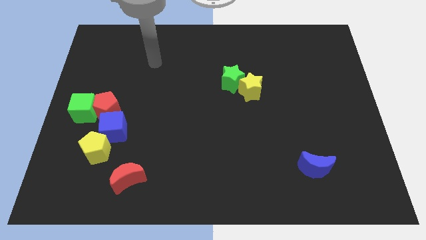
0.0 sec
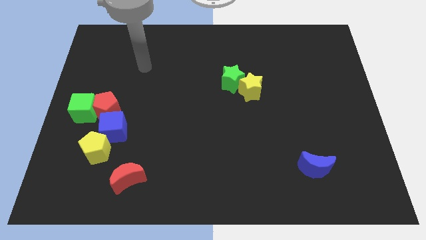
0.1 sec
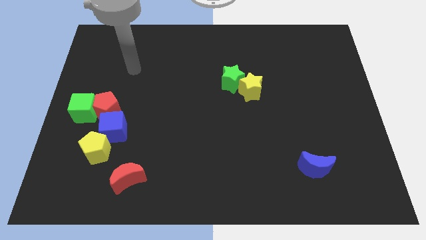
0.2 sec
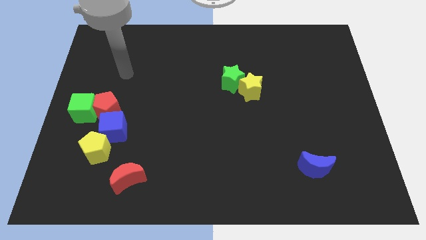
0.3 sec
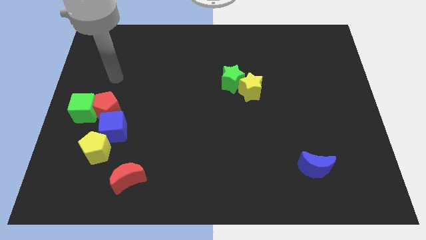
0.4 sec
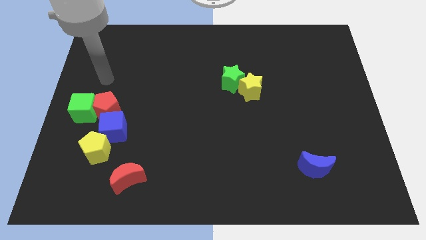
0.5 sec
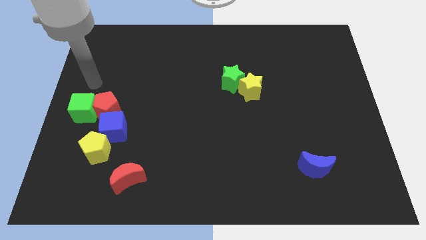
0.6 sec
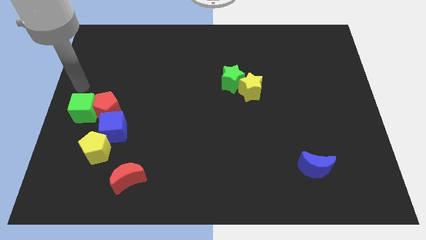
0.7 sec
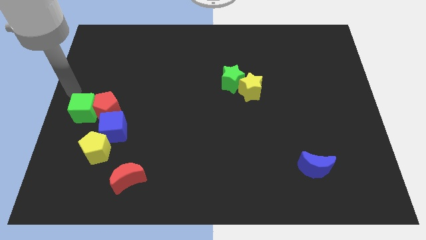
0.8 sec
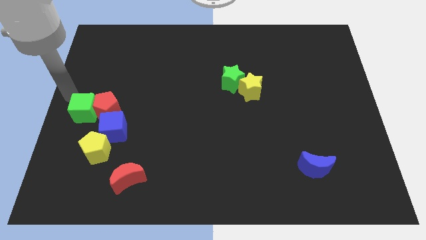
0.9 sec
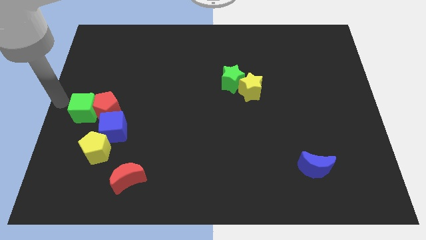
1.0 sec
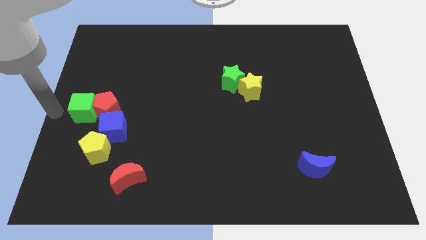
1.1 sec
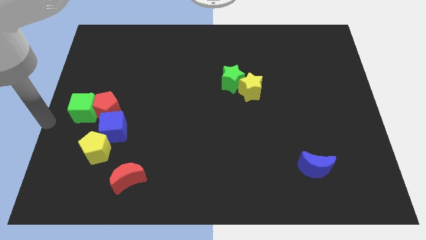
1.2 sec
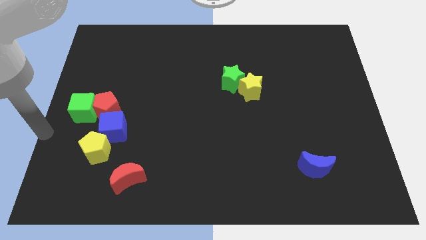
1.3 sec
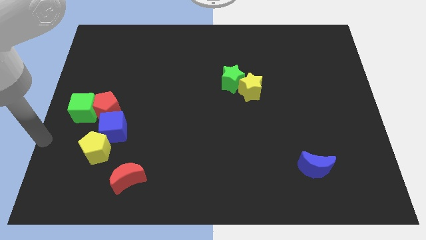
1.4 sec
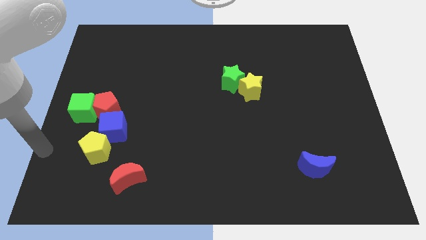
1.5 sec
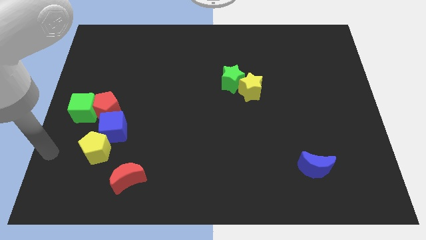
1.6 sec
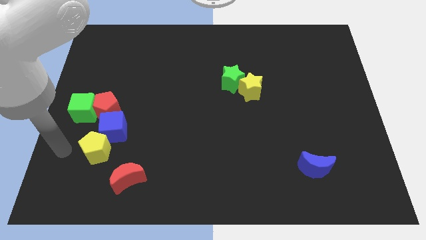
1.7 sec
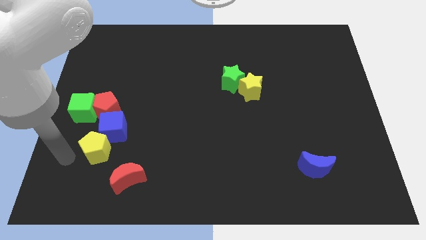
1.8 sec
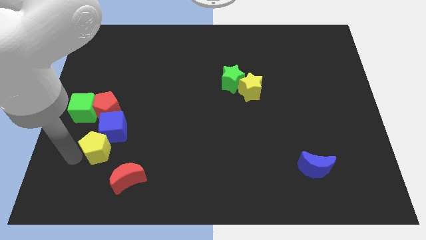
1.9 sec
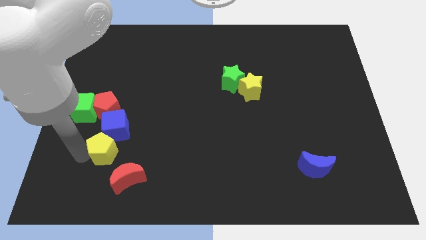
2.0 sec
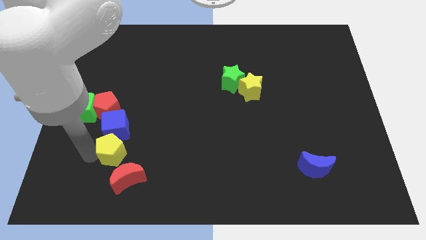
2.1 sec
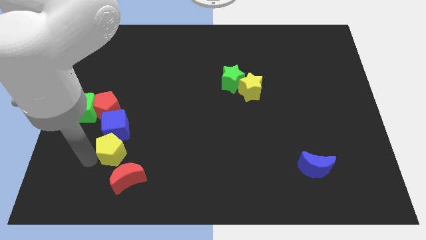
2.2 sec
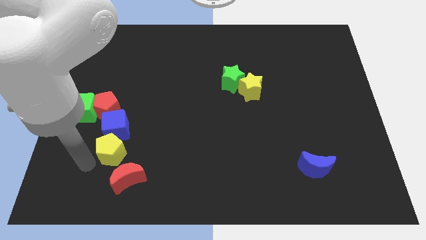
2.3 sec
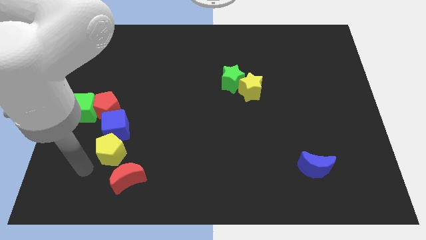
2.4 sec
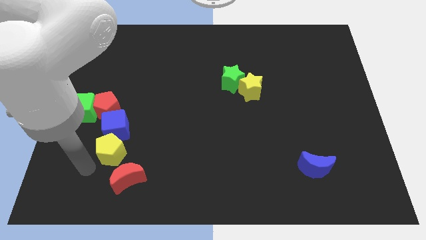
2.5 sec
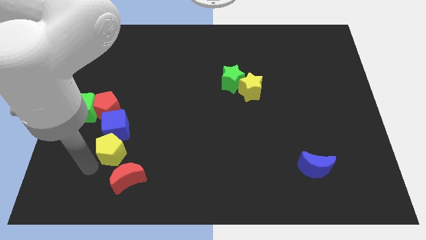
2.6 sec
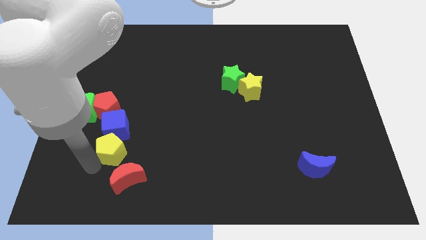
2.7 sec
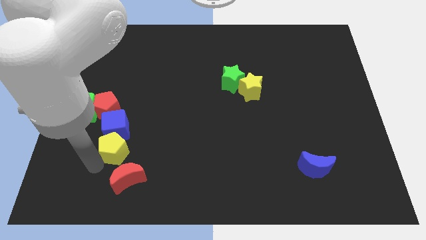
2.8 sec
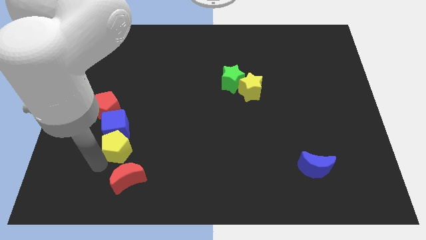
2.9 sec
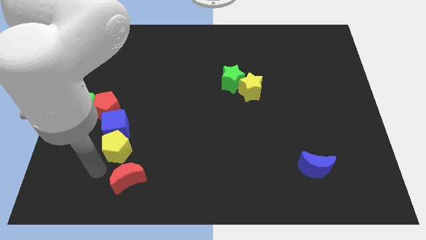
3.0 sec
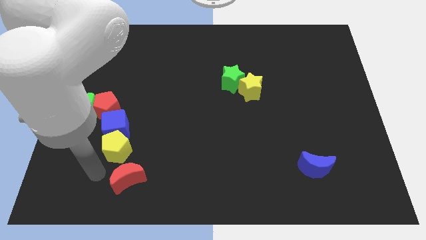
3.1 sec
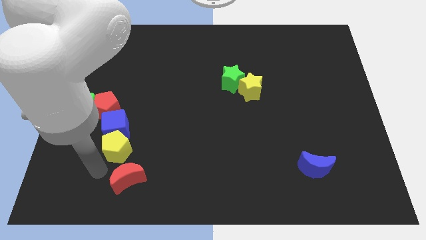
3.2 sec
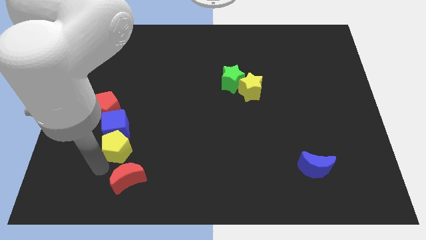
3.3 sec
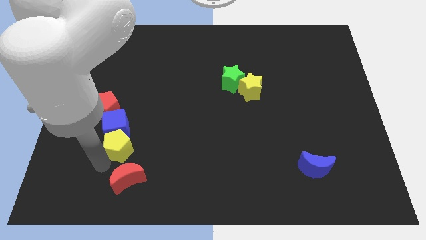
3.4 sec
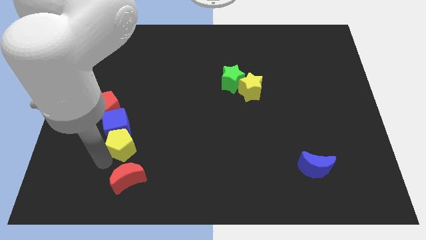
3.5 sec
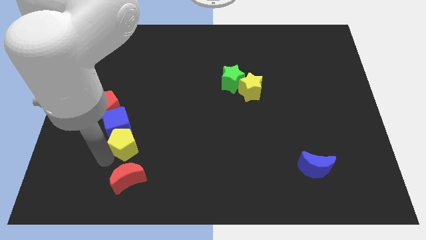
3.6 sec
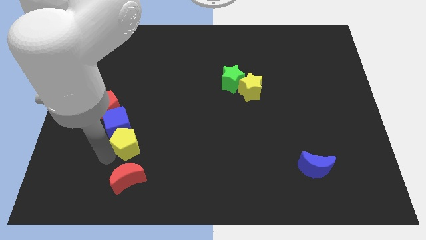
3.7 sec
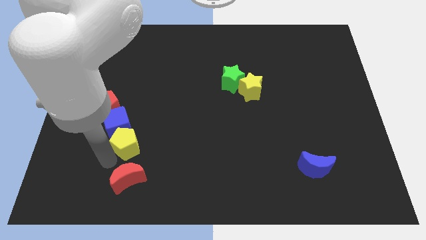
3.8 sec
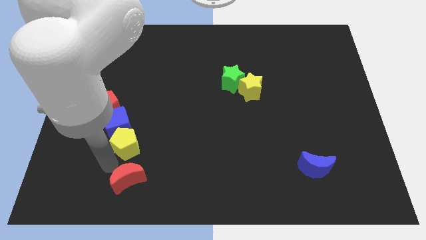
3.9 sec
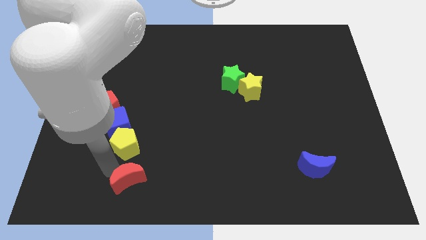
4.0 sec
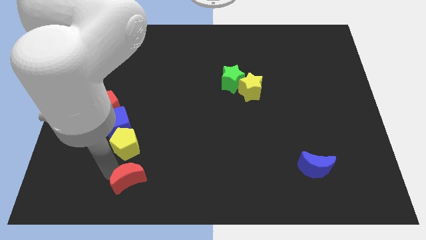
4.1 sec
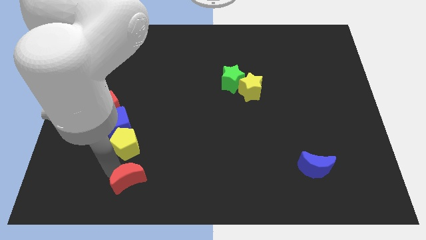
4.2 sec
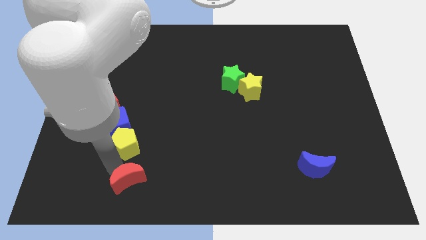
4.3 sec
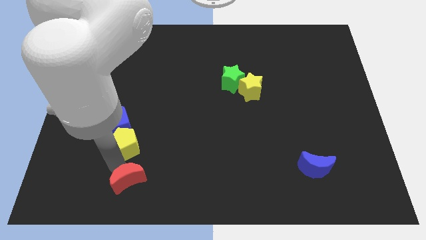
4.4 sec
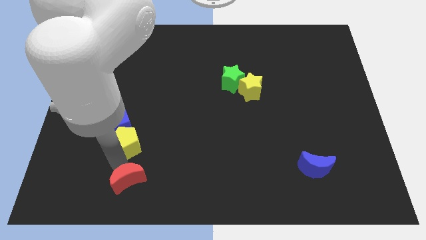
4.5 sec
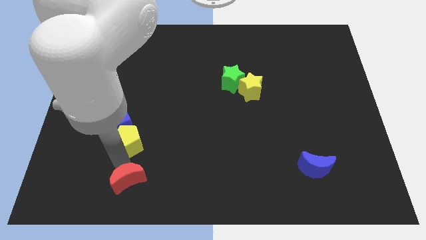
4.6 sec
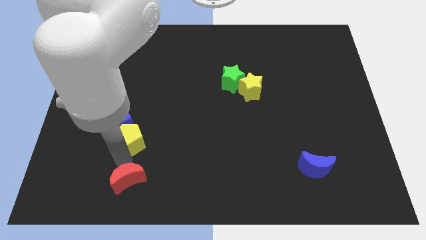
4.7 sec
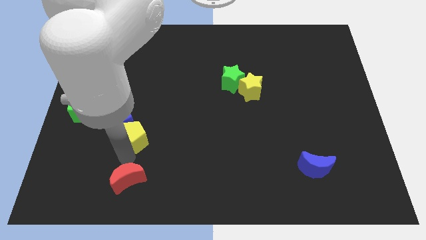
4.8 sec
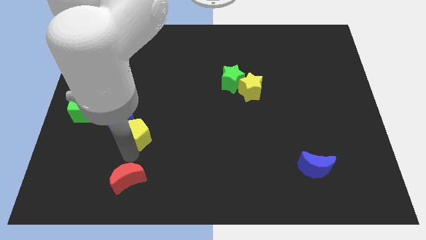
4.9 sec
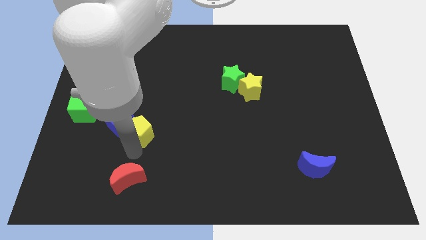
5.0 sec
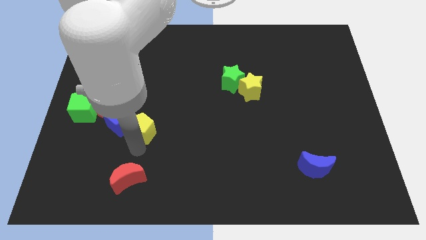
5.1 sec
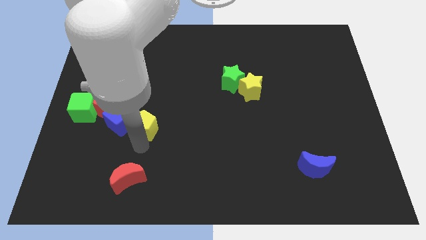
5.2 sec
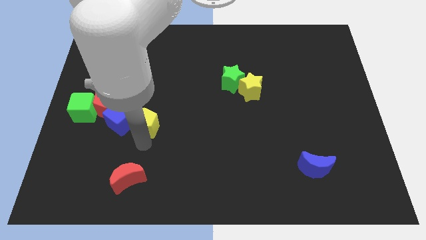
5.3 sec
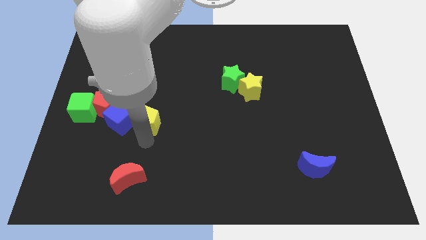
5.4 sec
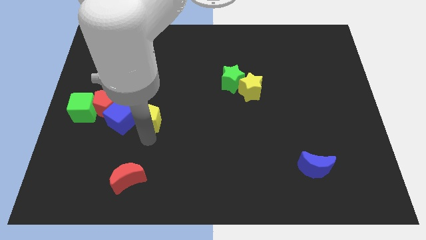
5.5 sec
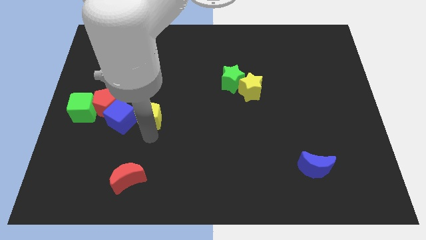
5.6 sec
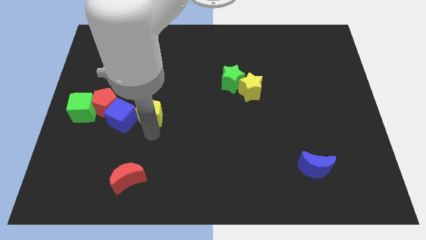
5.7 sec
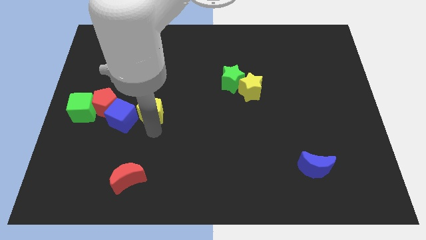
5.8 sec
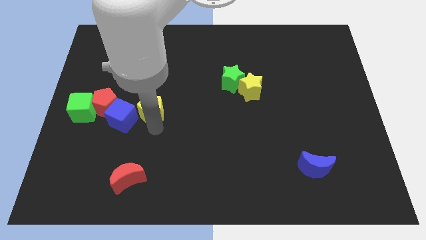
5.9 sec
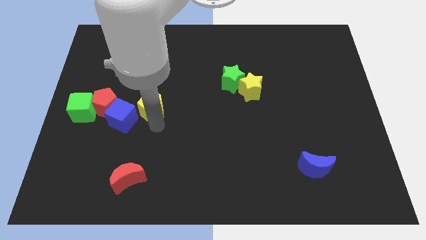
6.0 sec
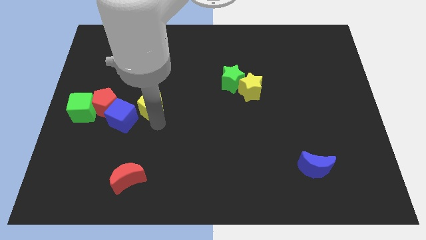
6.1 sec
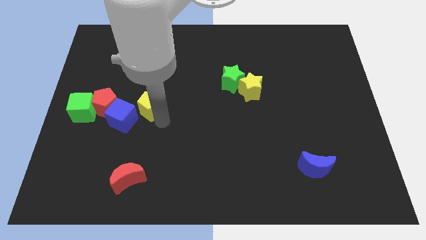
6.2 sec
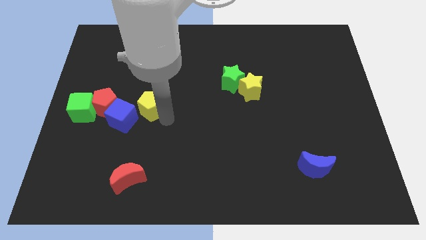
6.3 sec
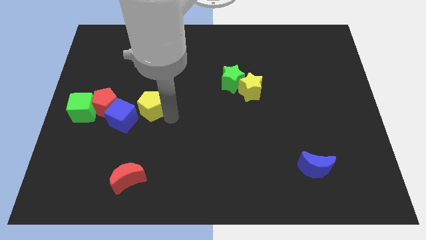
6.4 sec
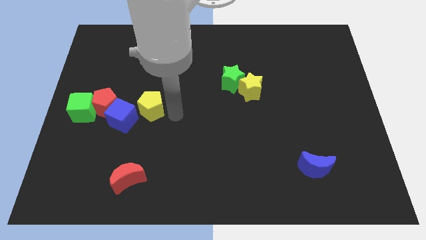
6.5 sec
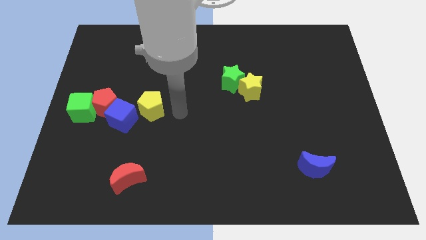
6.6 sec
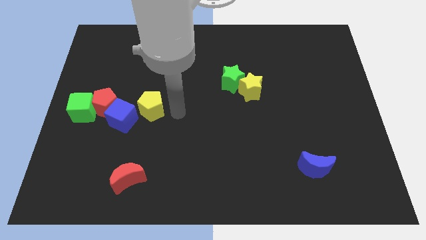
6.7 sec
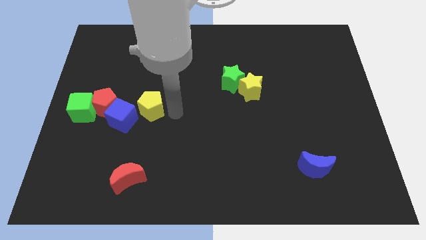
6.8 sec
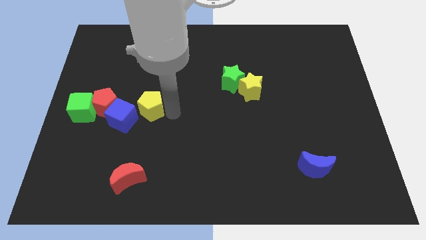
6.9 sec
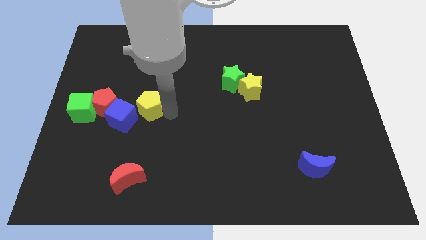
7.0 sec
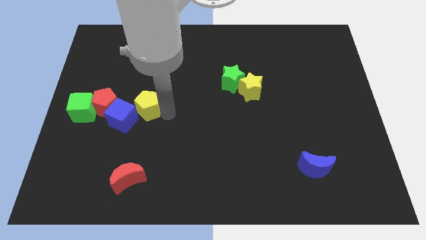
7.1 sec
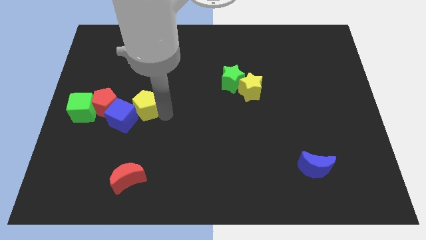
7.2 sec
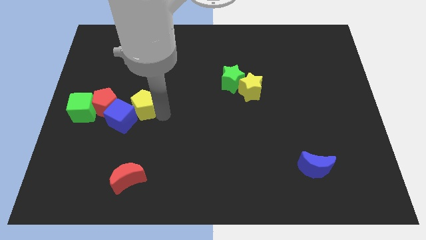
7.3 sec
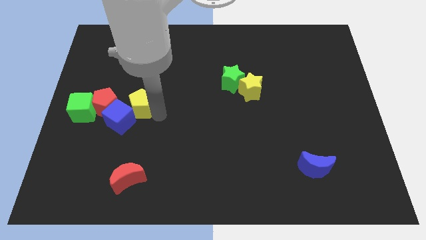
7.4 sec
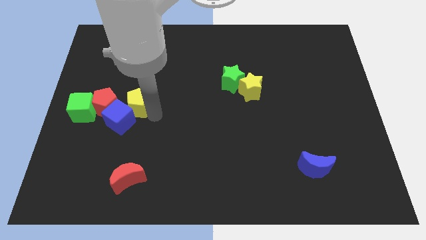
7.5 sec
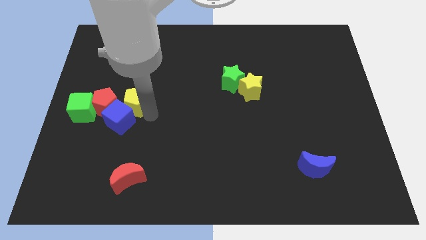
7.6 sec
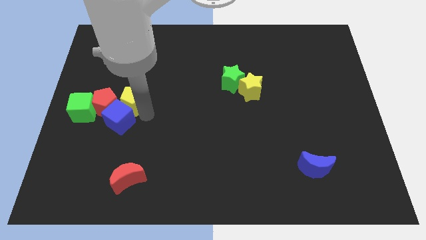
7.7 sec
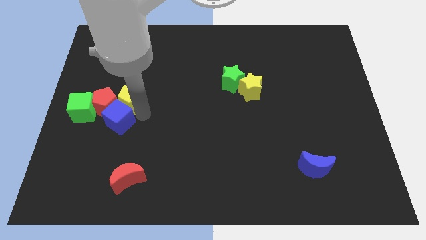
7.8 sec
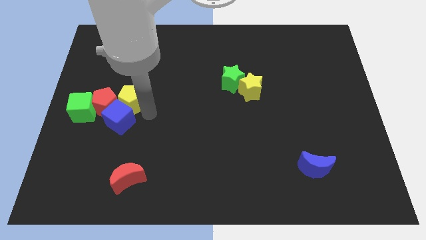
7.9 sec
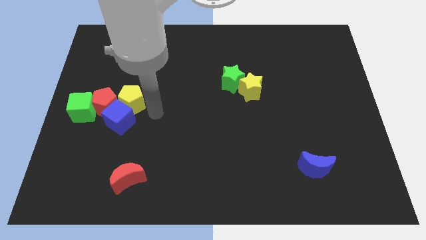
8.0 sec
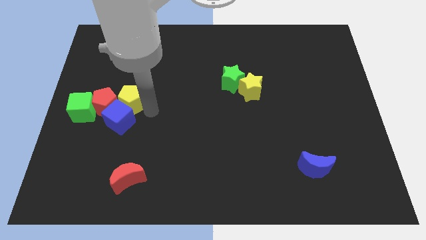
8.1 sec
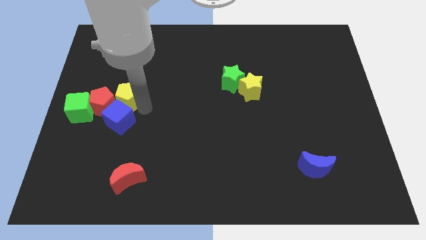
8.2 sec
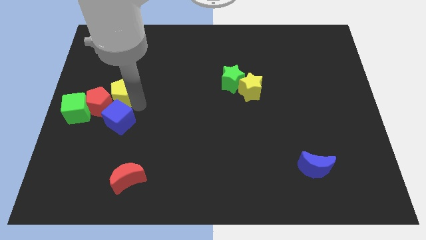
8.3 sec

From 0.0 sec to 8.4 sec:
put the yellow pentagon diagonally up and to the right of the green cube
